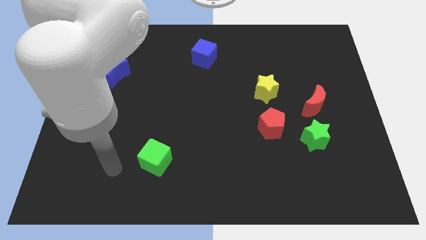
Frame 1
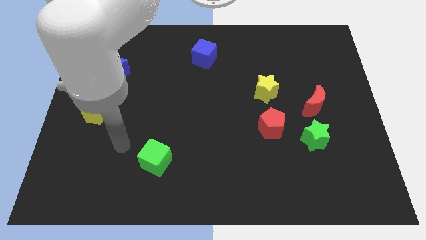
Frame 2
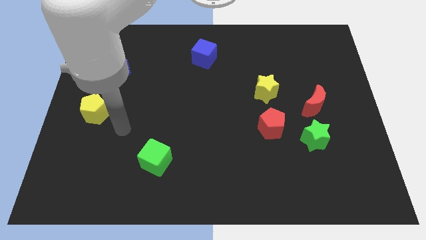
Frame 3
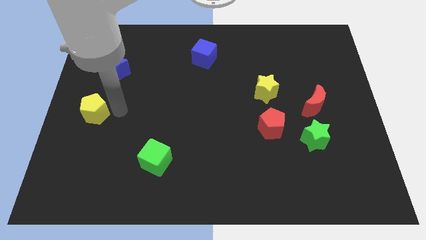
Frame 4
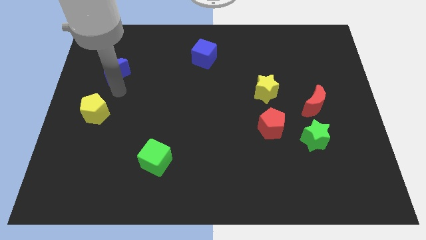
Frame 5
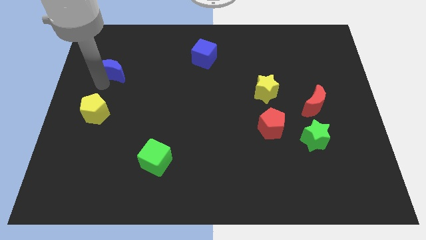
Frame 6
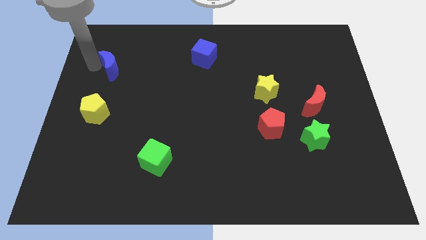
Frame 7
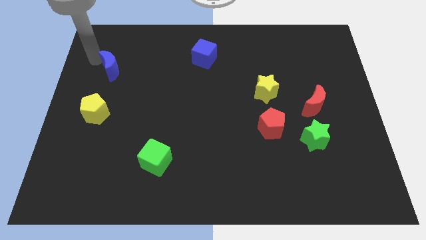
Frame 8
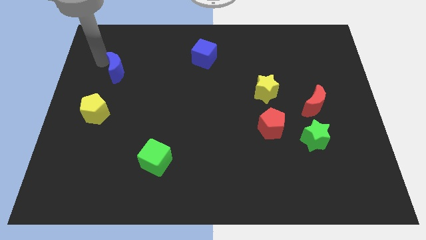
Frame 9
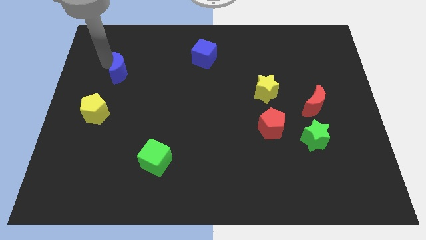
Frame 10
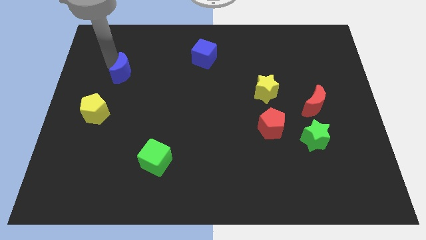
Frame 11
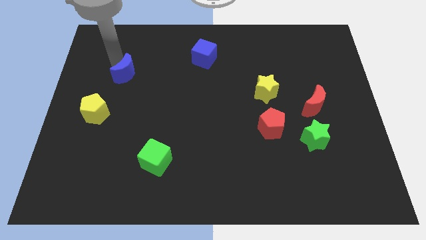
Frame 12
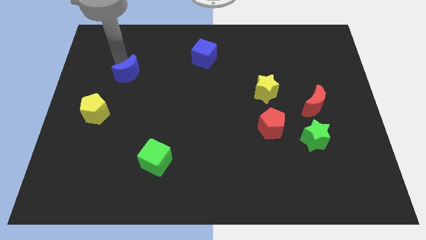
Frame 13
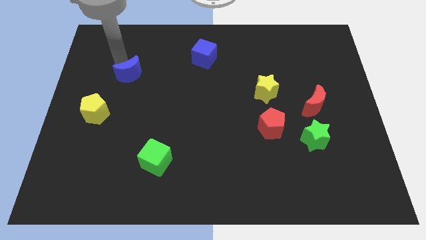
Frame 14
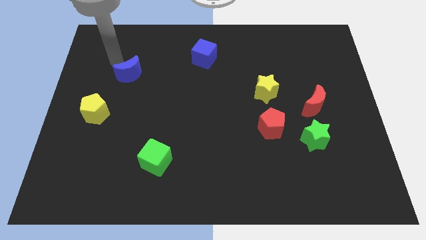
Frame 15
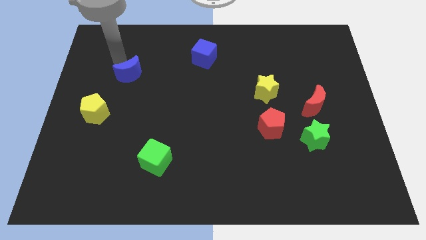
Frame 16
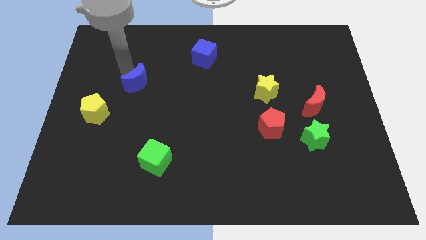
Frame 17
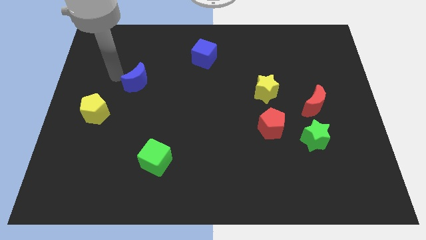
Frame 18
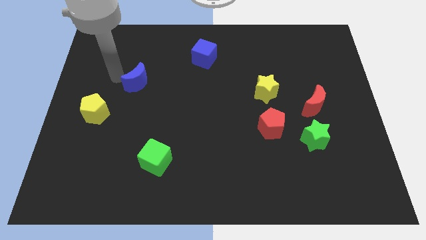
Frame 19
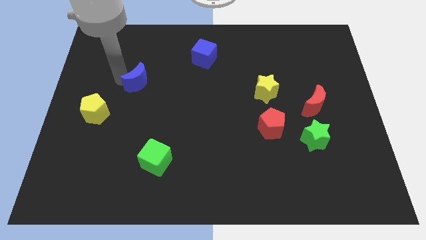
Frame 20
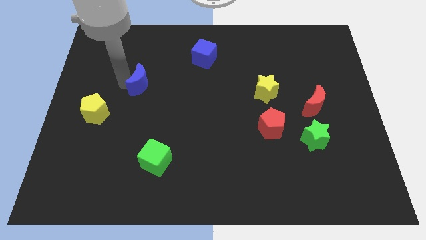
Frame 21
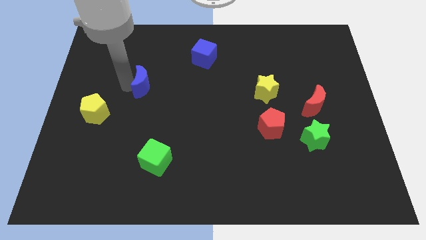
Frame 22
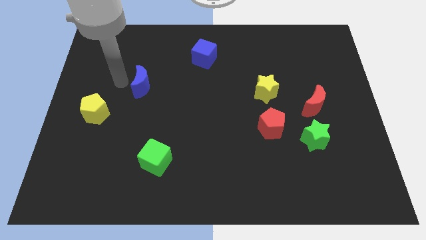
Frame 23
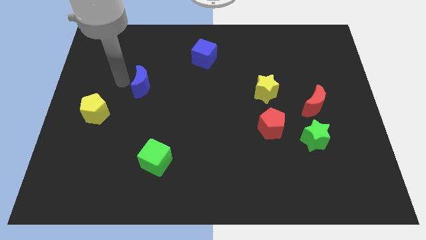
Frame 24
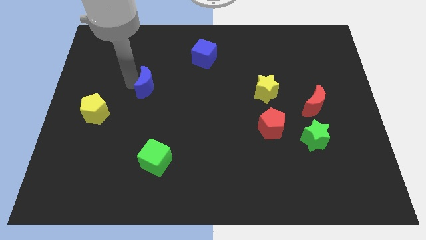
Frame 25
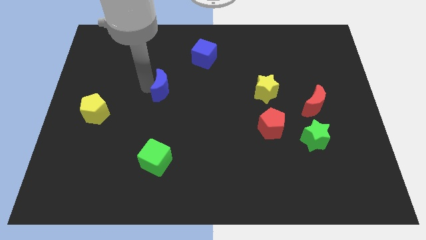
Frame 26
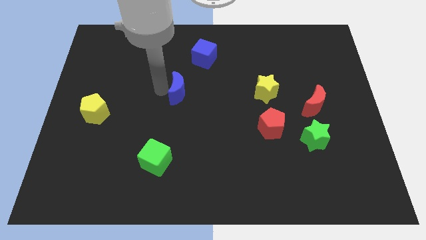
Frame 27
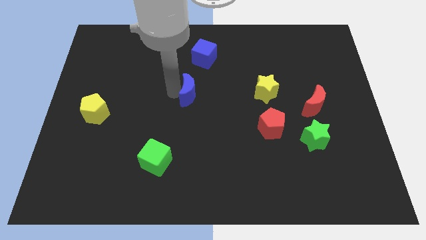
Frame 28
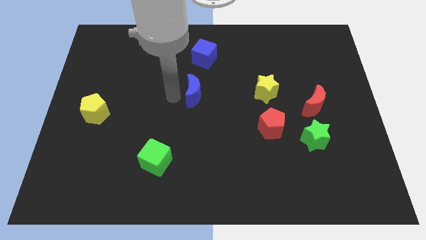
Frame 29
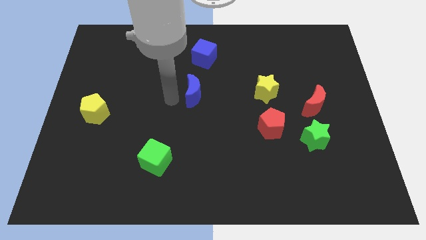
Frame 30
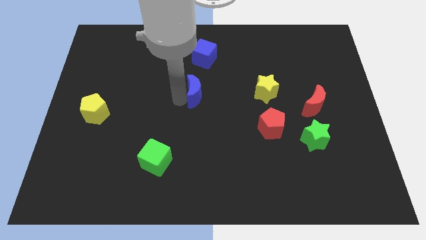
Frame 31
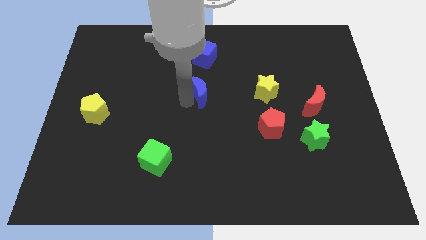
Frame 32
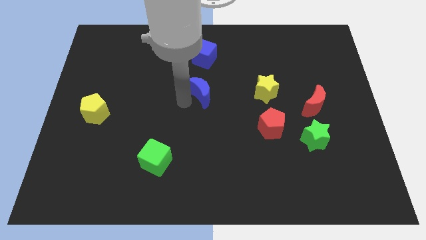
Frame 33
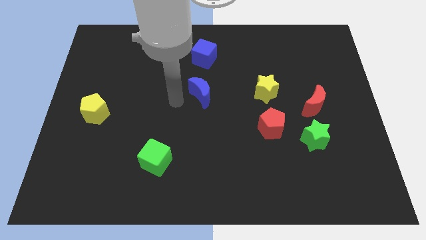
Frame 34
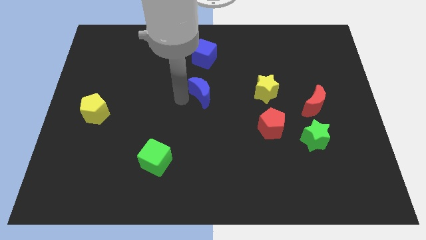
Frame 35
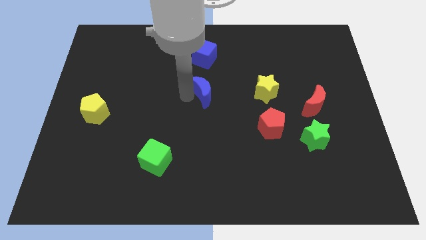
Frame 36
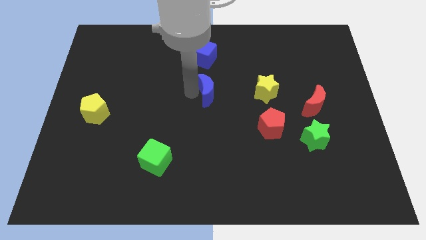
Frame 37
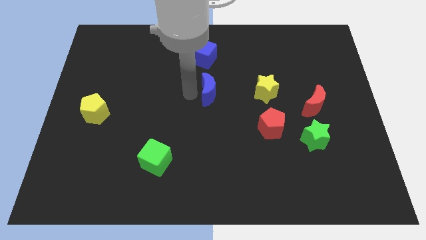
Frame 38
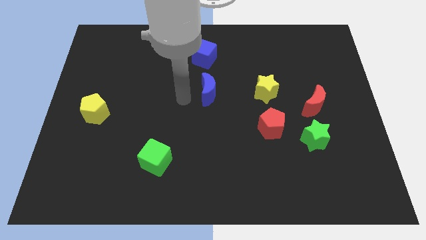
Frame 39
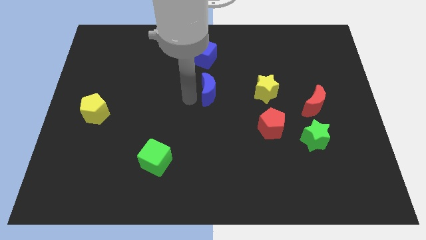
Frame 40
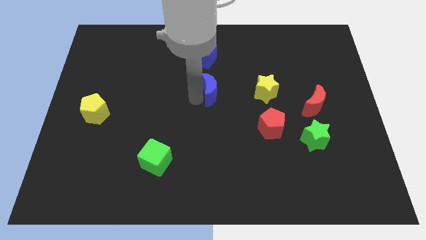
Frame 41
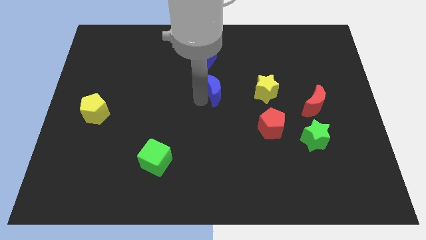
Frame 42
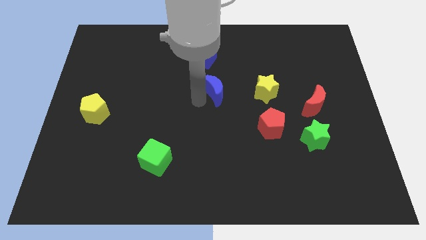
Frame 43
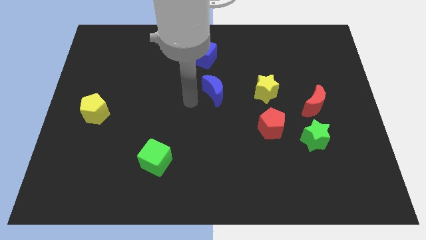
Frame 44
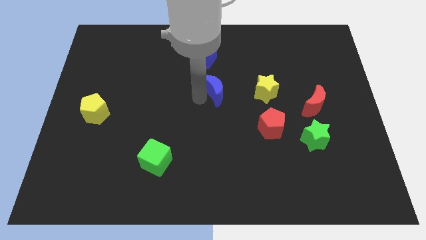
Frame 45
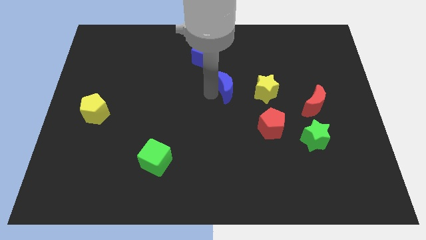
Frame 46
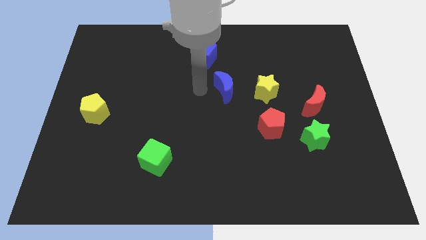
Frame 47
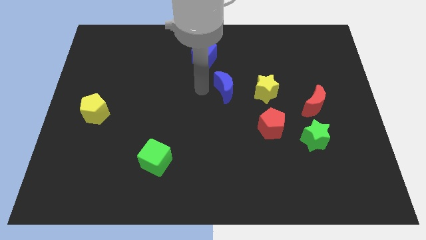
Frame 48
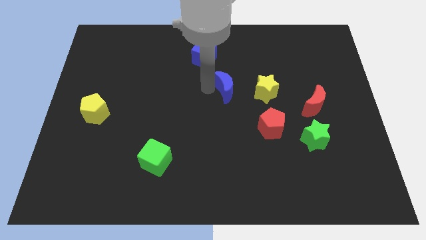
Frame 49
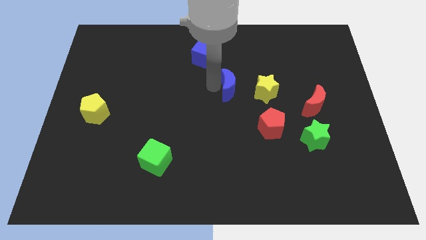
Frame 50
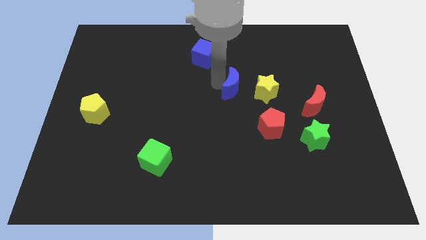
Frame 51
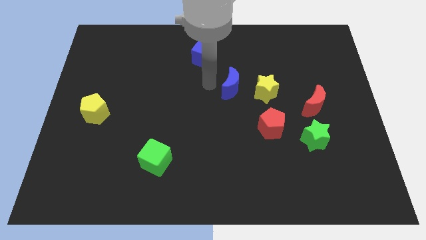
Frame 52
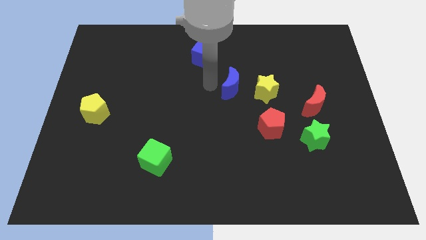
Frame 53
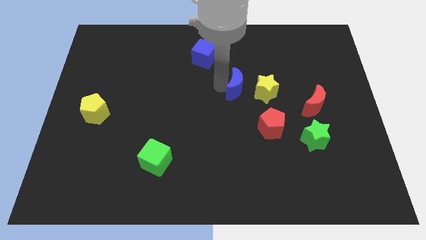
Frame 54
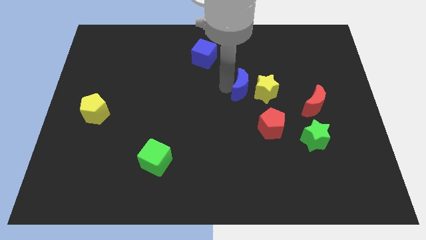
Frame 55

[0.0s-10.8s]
slide the blue moon next to the yellow star

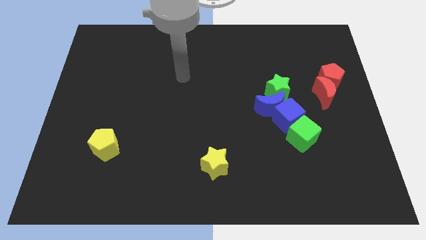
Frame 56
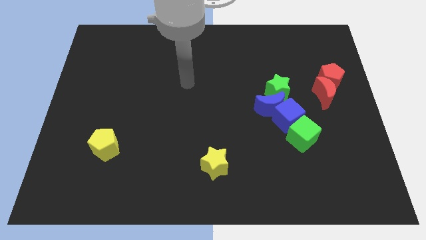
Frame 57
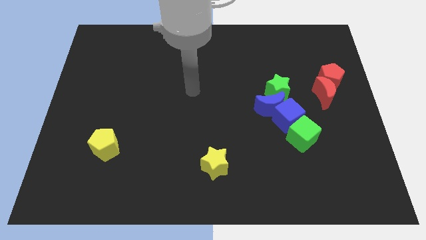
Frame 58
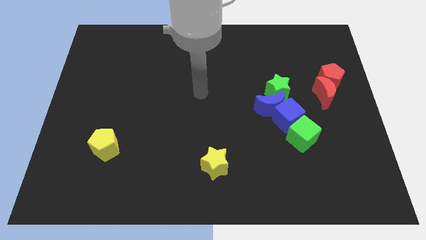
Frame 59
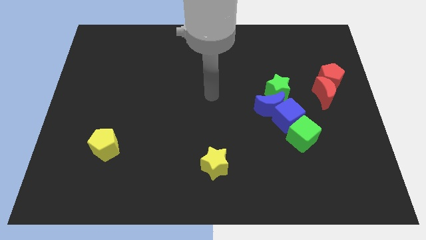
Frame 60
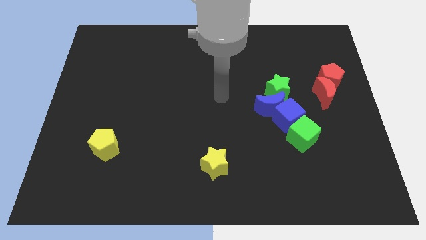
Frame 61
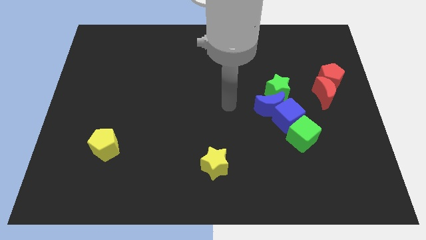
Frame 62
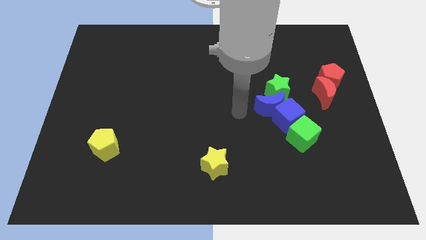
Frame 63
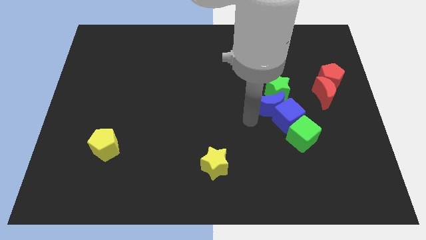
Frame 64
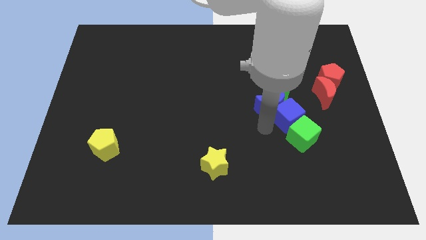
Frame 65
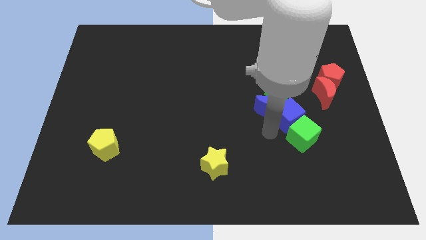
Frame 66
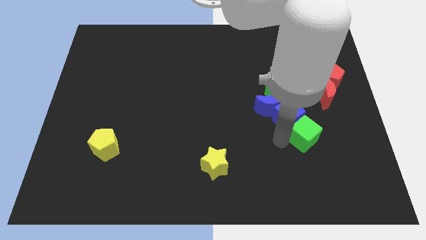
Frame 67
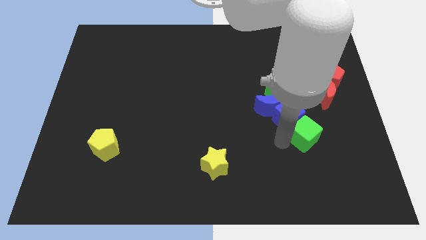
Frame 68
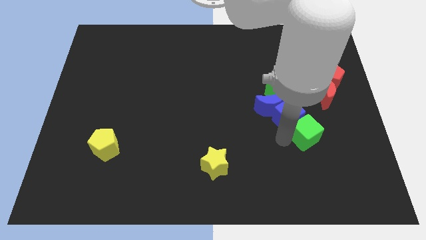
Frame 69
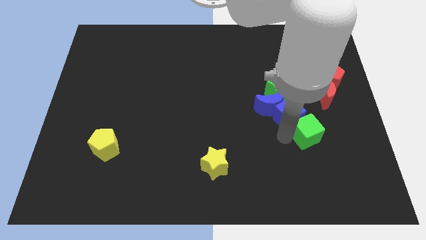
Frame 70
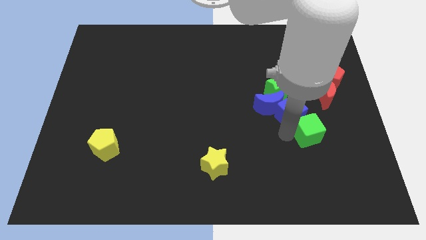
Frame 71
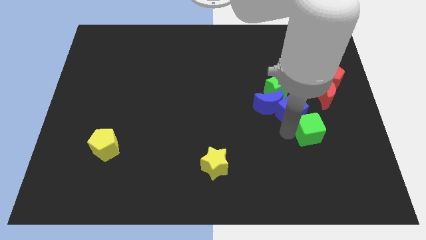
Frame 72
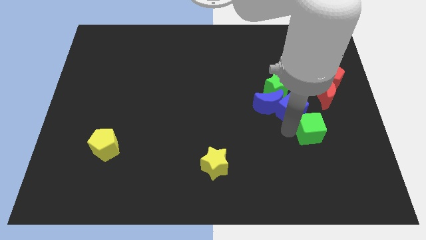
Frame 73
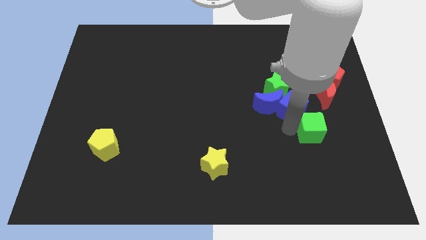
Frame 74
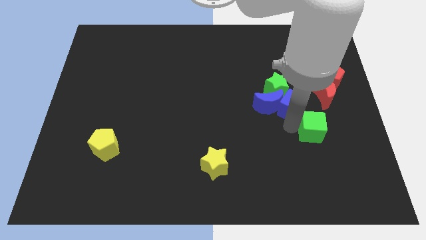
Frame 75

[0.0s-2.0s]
slide the blue cube close to the green star
